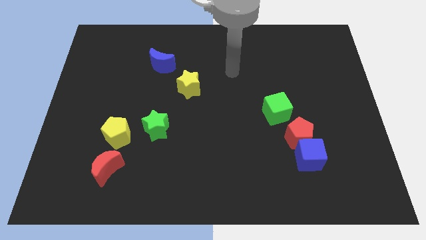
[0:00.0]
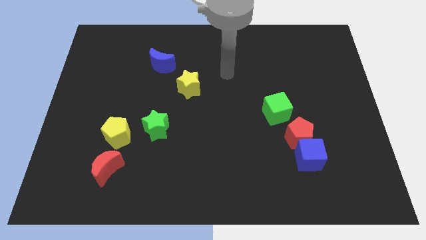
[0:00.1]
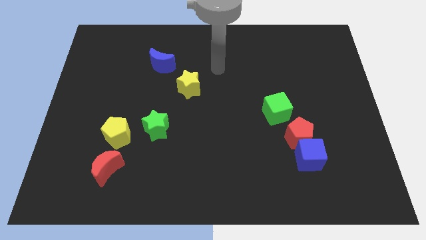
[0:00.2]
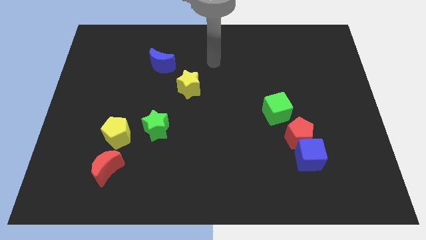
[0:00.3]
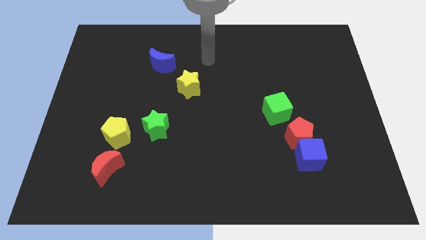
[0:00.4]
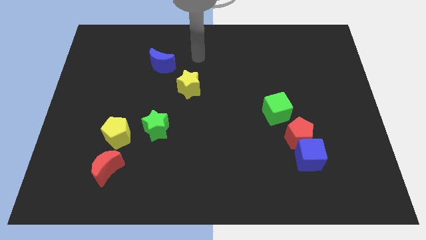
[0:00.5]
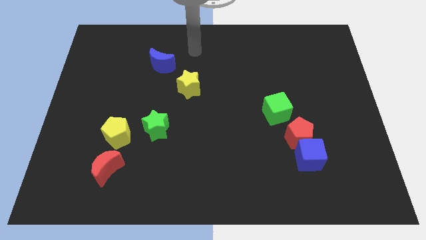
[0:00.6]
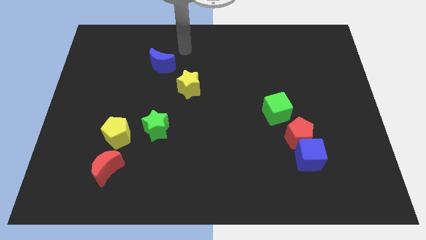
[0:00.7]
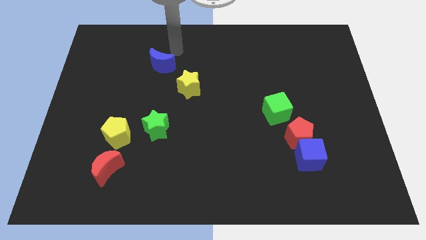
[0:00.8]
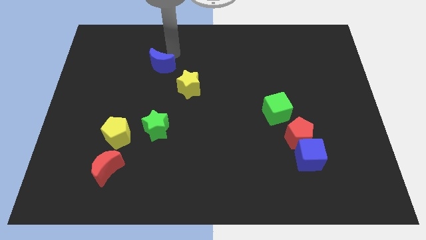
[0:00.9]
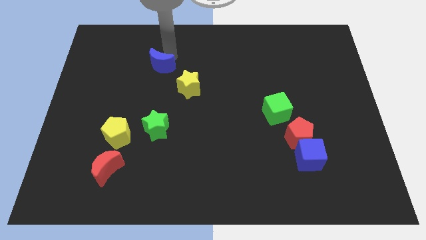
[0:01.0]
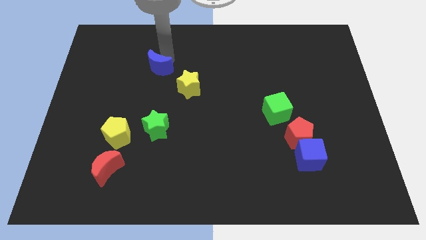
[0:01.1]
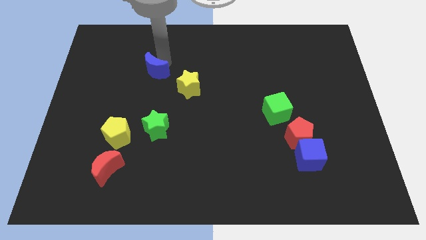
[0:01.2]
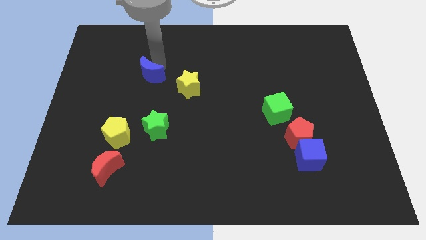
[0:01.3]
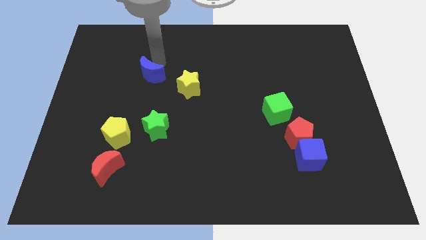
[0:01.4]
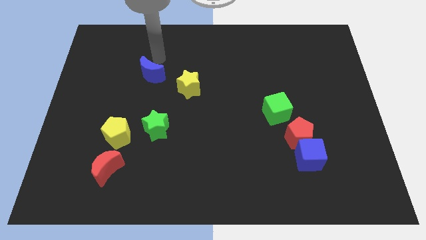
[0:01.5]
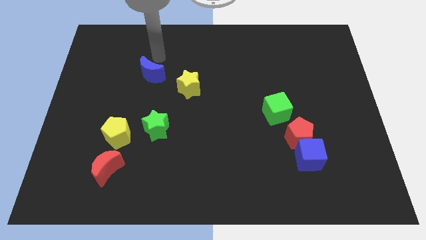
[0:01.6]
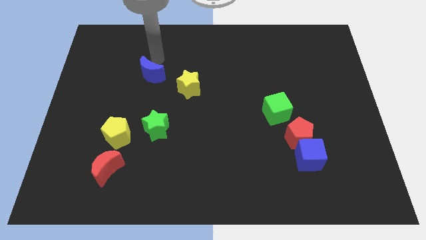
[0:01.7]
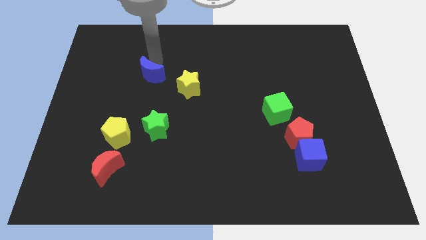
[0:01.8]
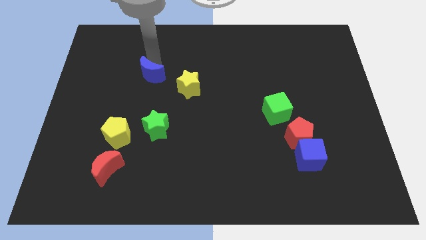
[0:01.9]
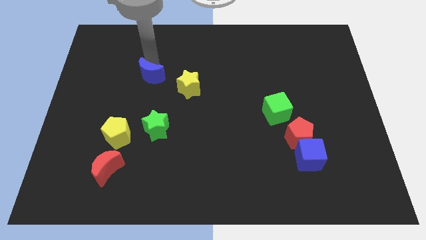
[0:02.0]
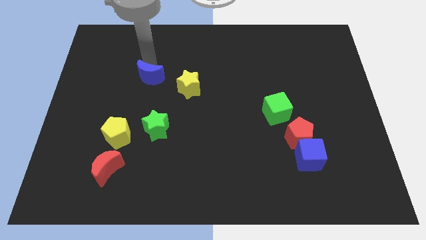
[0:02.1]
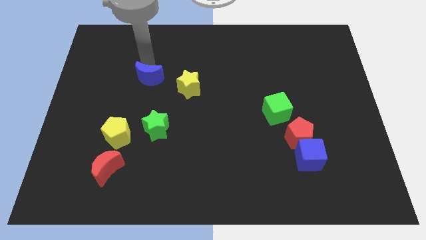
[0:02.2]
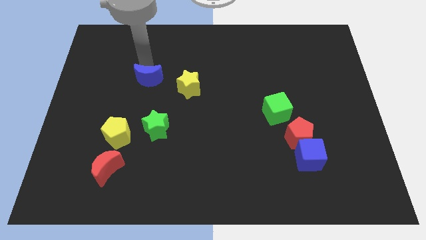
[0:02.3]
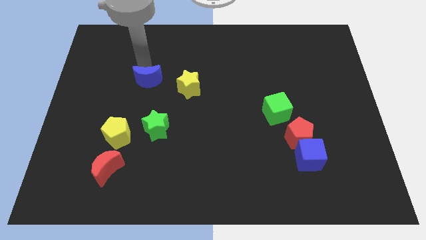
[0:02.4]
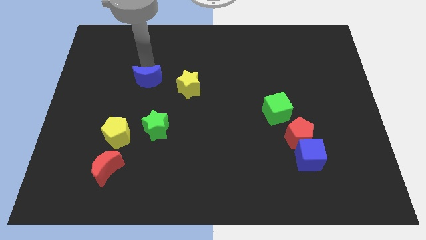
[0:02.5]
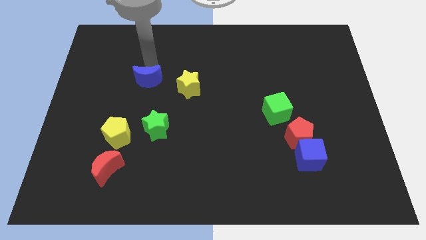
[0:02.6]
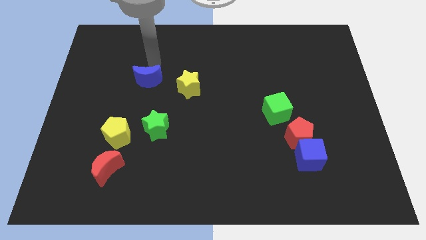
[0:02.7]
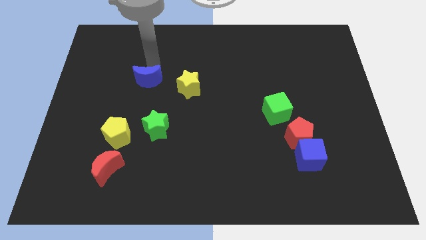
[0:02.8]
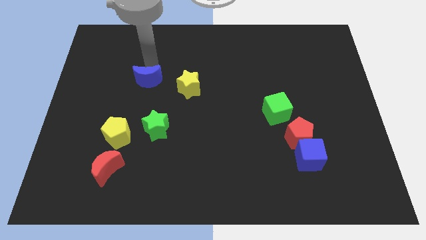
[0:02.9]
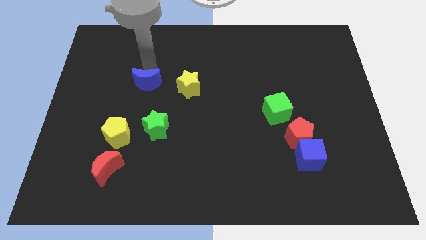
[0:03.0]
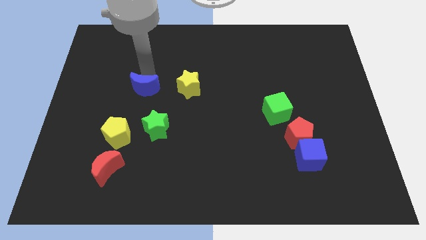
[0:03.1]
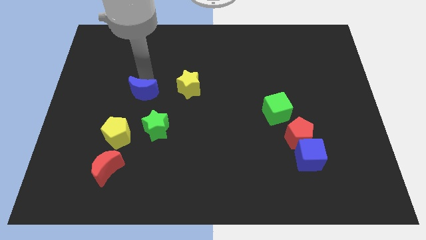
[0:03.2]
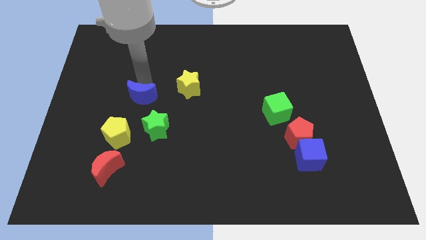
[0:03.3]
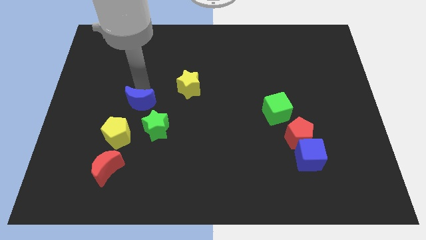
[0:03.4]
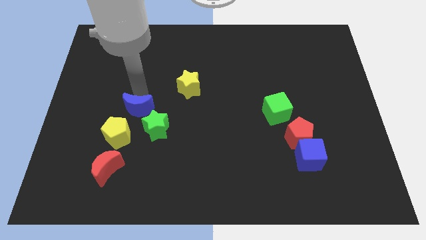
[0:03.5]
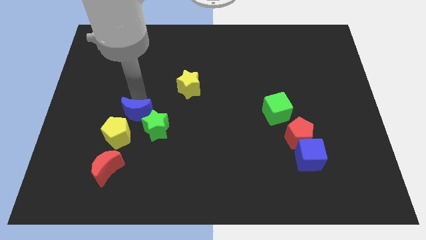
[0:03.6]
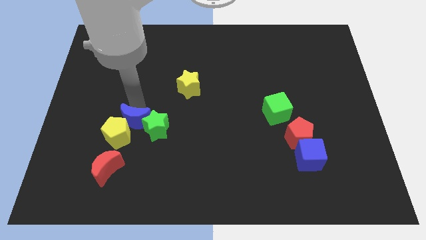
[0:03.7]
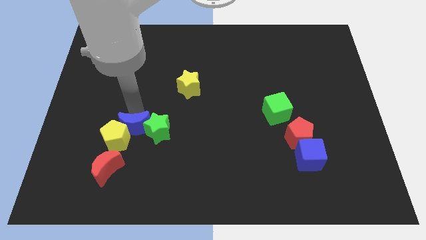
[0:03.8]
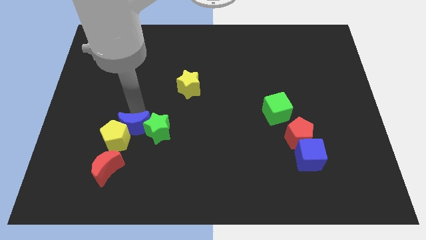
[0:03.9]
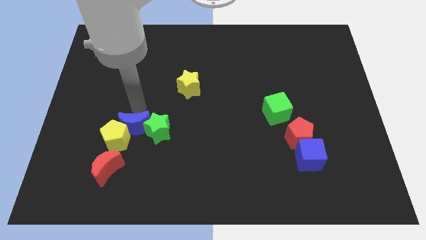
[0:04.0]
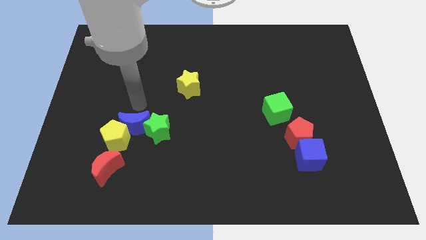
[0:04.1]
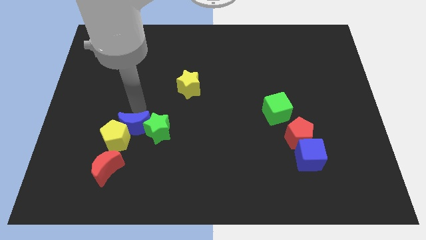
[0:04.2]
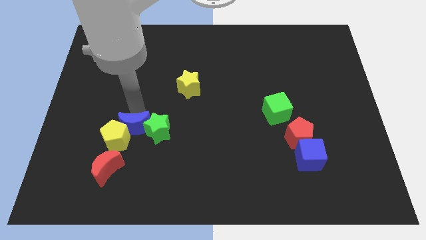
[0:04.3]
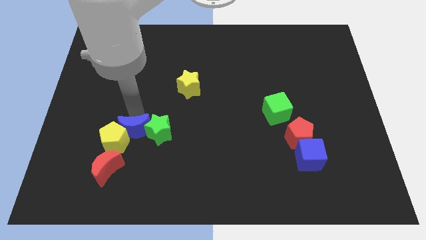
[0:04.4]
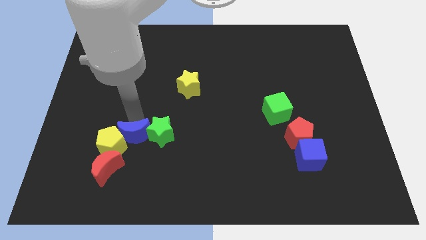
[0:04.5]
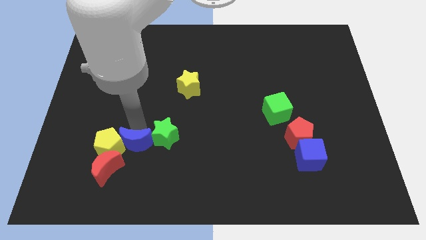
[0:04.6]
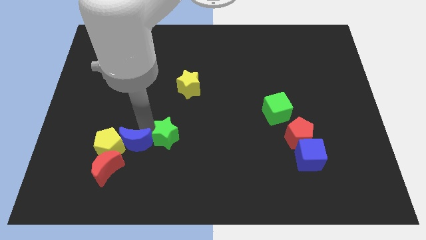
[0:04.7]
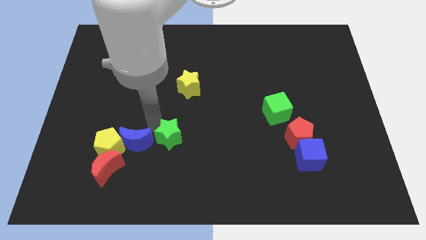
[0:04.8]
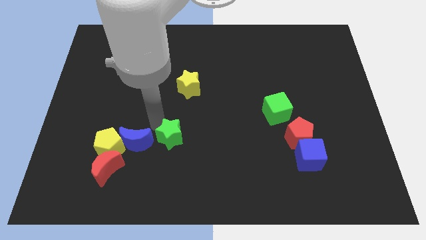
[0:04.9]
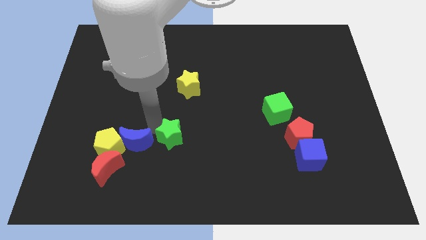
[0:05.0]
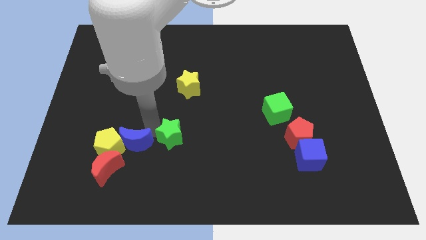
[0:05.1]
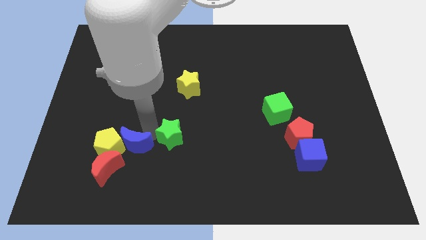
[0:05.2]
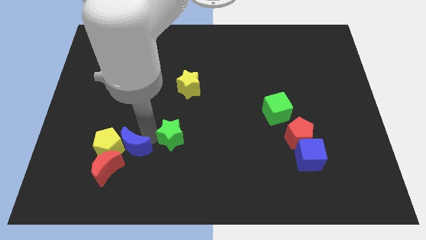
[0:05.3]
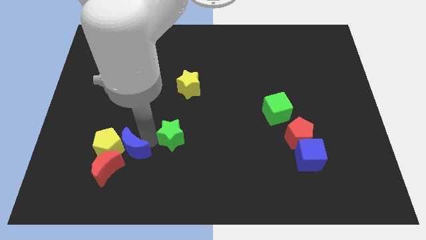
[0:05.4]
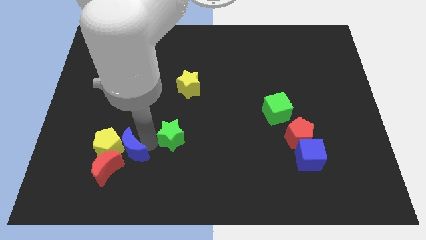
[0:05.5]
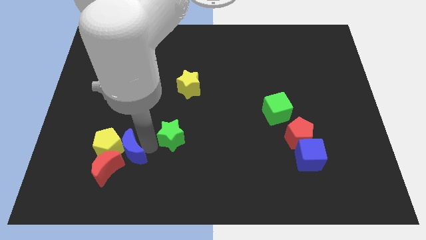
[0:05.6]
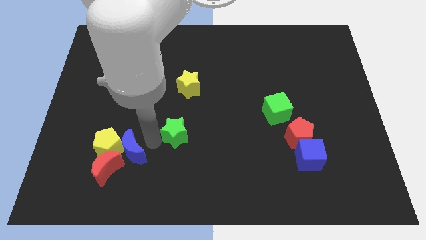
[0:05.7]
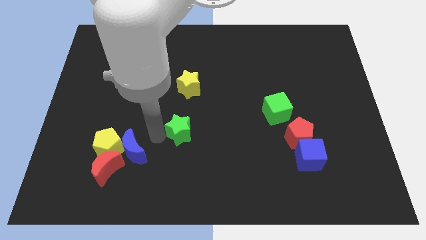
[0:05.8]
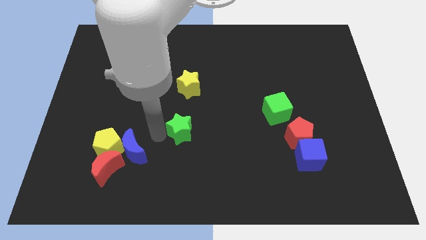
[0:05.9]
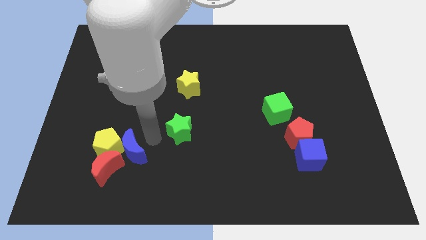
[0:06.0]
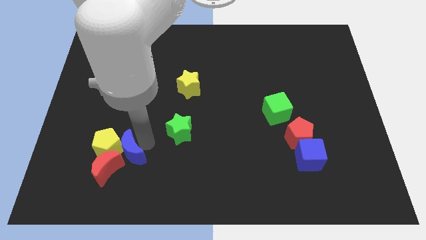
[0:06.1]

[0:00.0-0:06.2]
put the blue moon close to the red moon

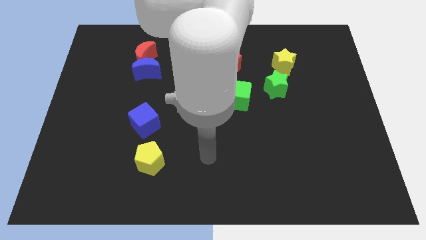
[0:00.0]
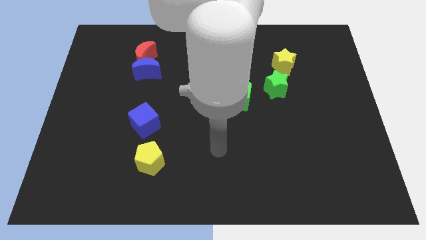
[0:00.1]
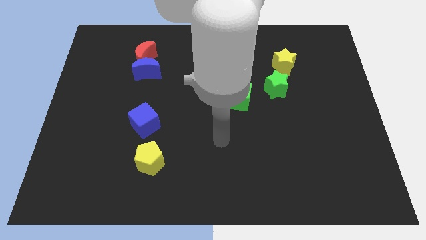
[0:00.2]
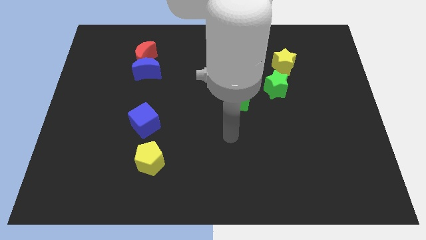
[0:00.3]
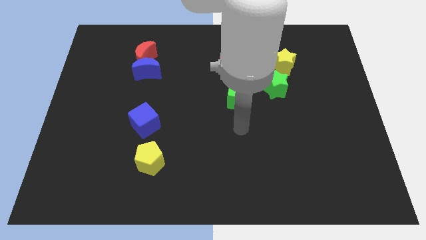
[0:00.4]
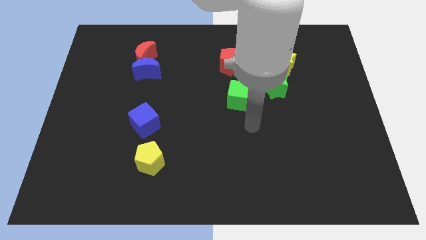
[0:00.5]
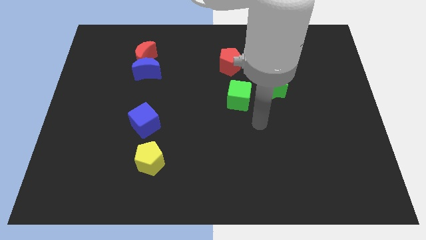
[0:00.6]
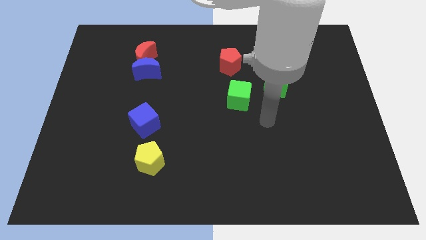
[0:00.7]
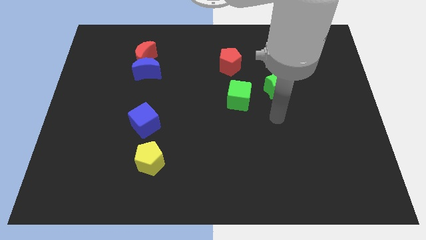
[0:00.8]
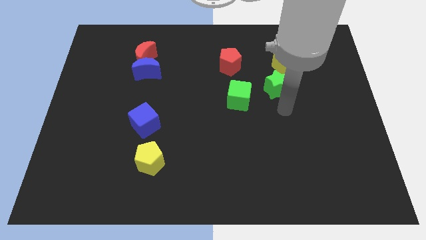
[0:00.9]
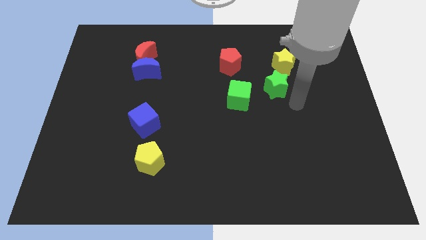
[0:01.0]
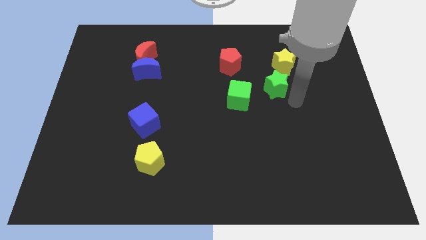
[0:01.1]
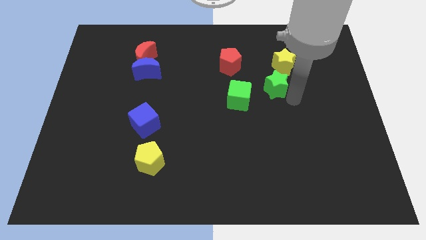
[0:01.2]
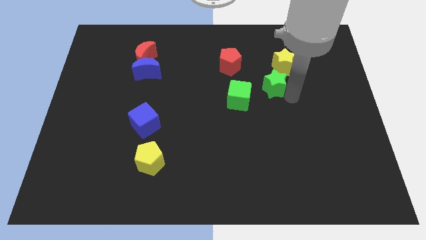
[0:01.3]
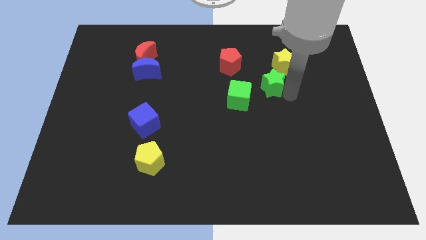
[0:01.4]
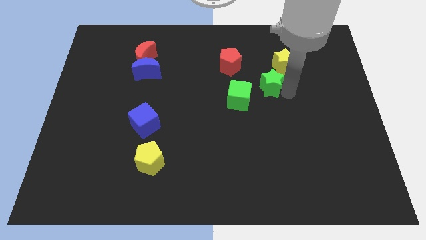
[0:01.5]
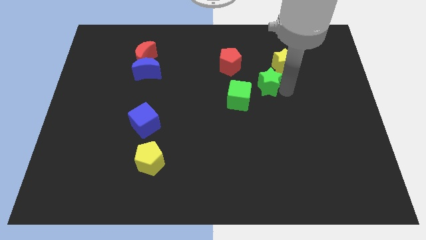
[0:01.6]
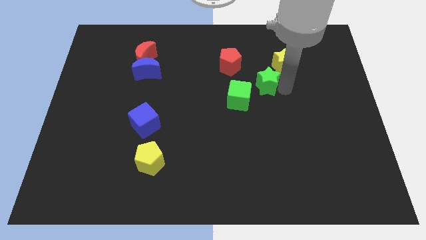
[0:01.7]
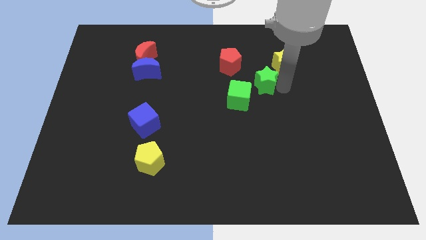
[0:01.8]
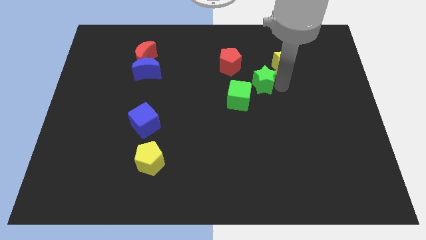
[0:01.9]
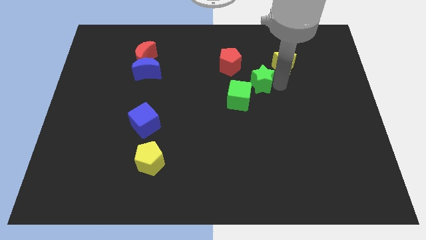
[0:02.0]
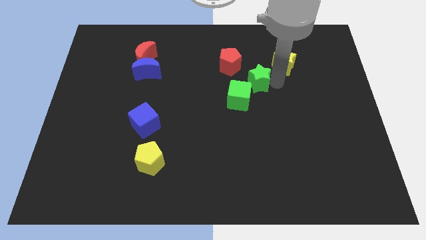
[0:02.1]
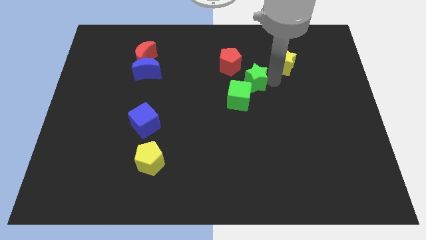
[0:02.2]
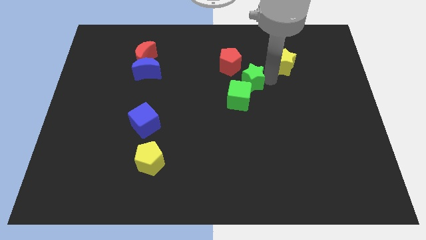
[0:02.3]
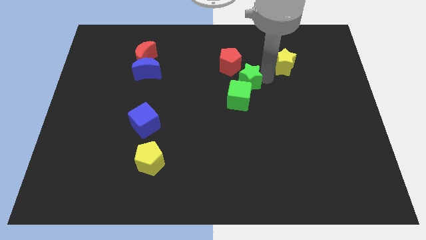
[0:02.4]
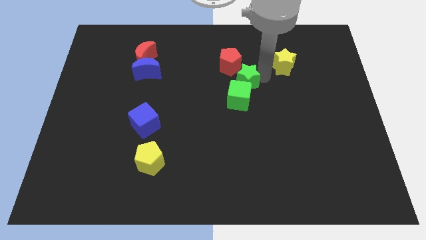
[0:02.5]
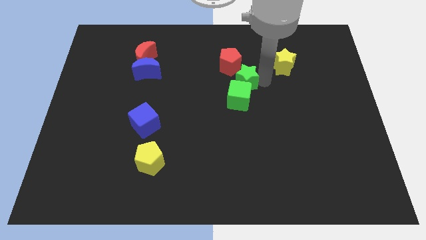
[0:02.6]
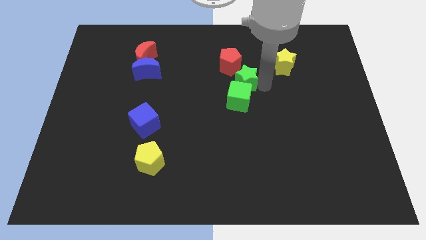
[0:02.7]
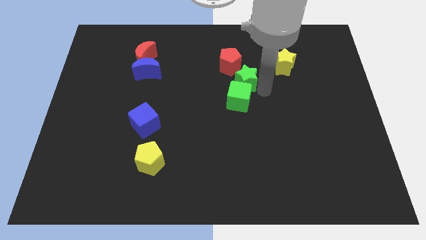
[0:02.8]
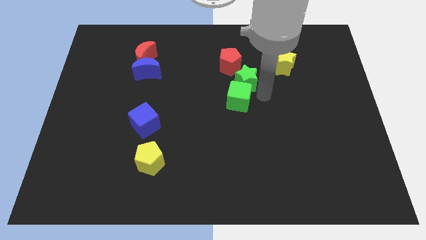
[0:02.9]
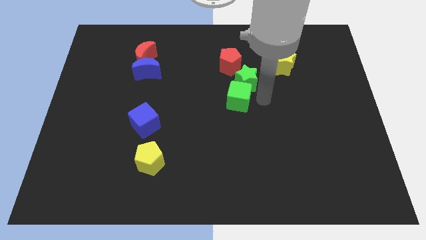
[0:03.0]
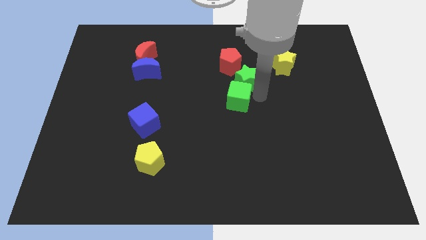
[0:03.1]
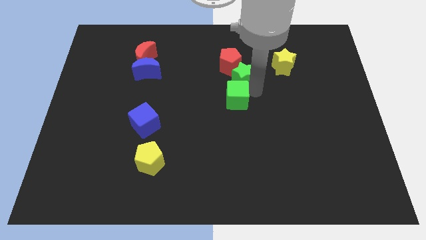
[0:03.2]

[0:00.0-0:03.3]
put the green star close to the red pentagon
